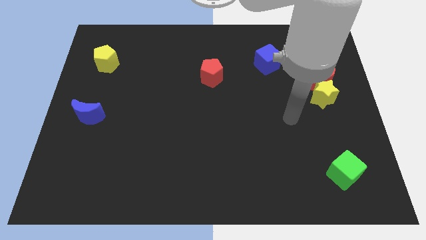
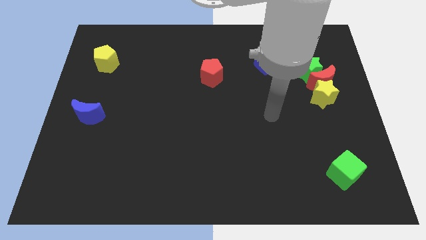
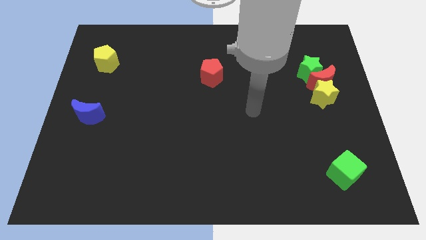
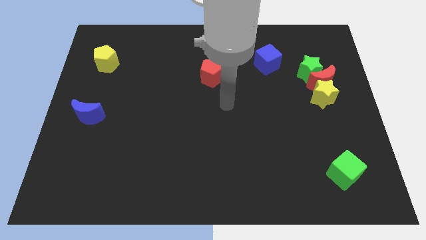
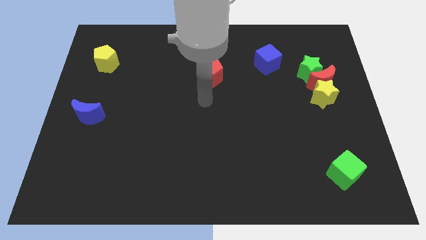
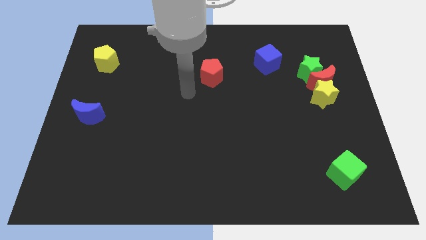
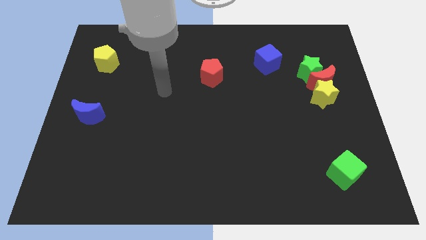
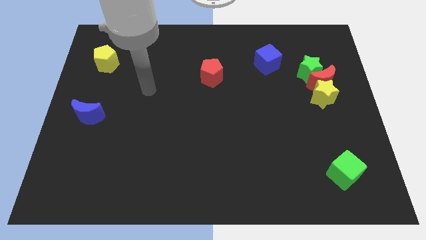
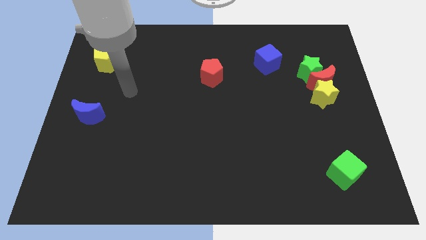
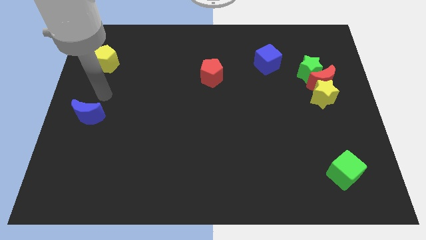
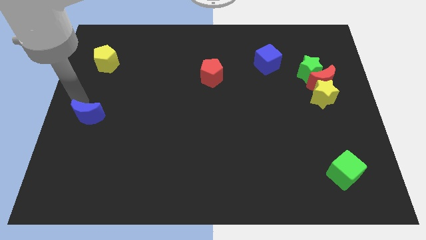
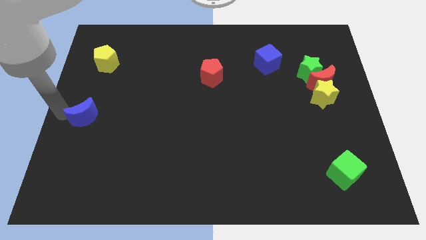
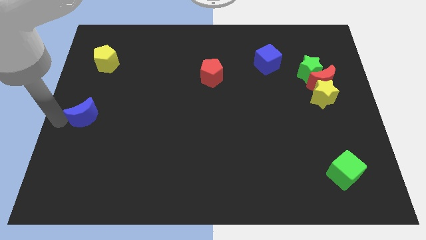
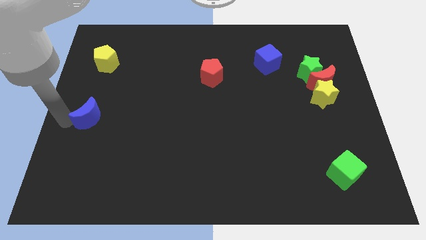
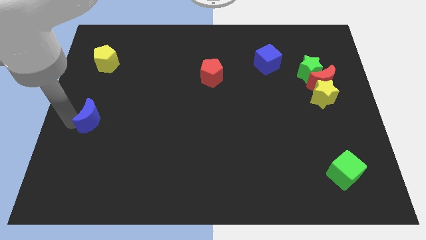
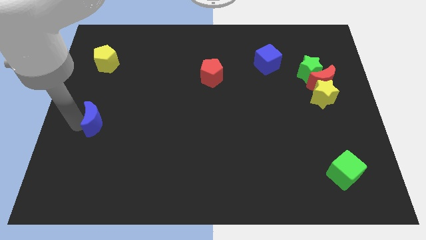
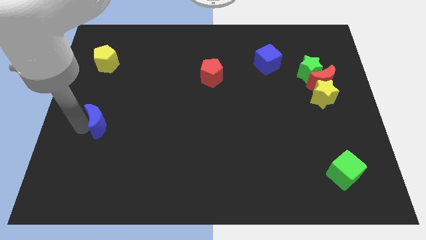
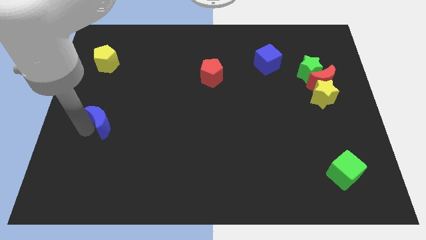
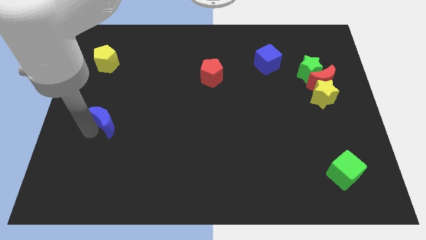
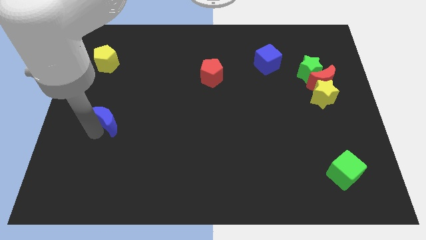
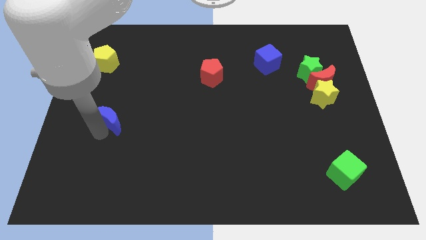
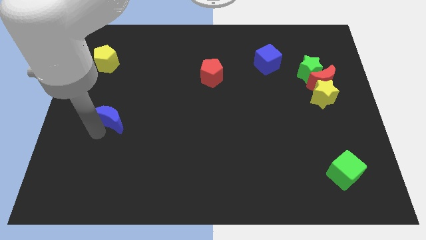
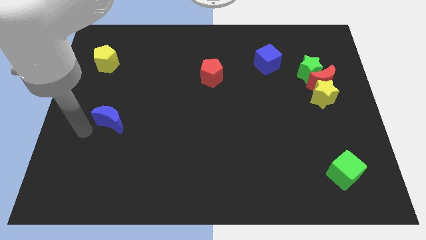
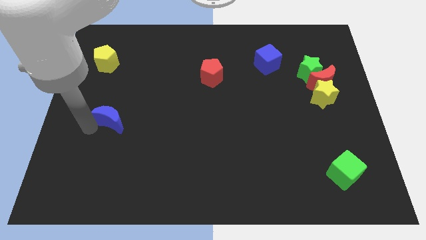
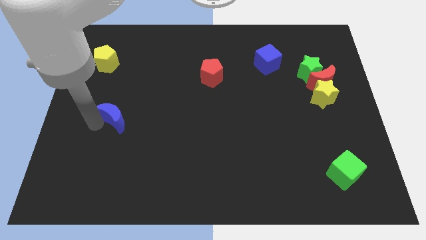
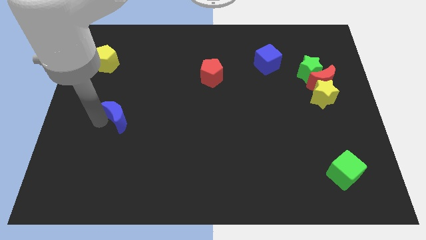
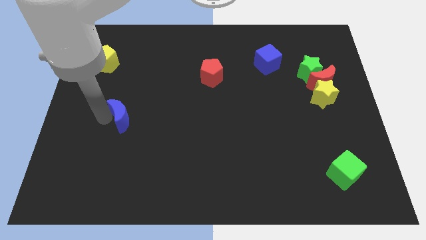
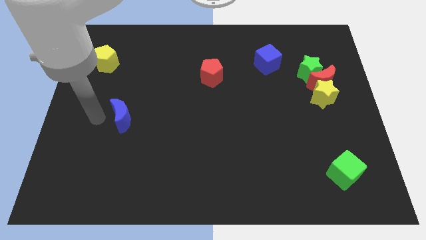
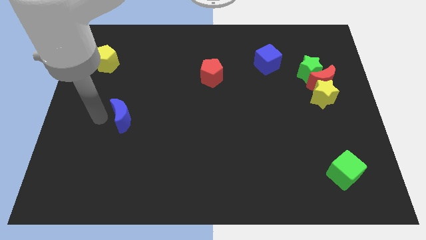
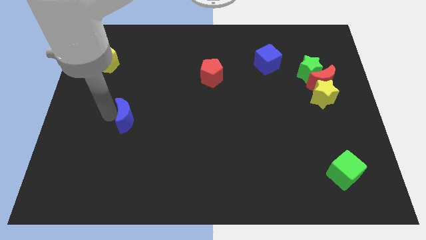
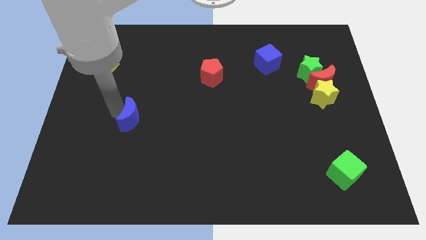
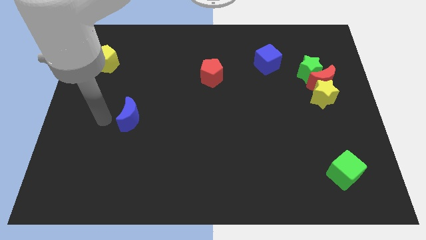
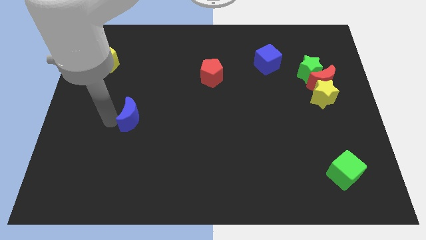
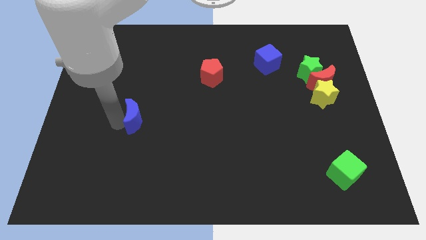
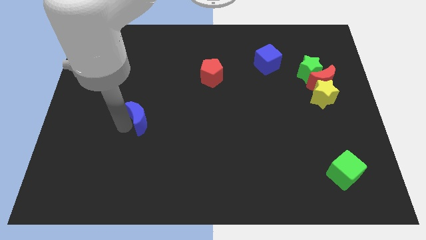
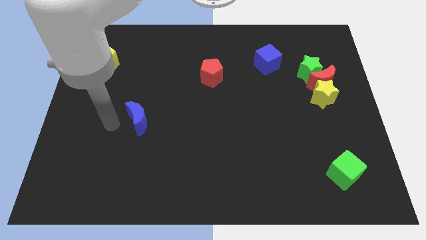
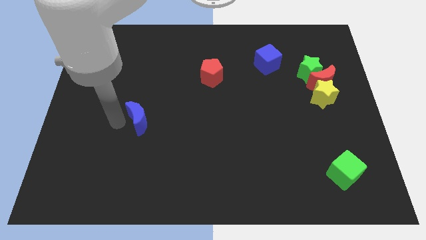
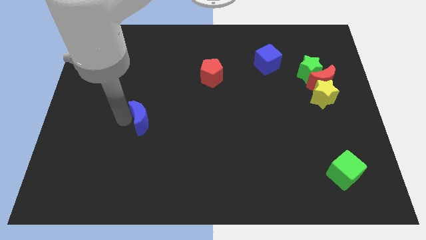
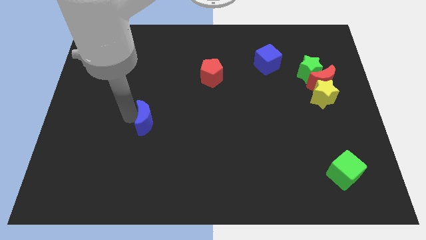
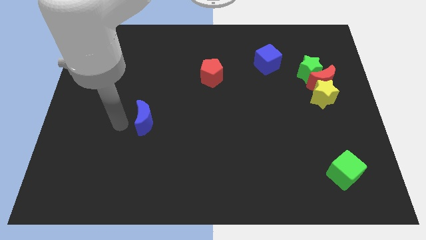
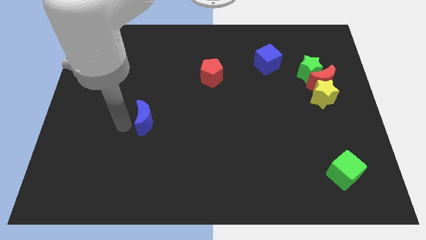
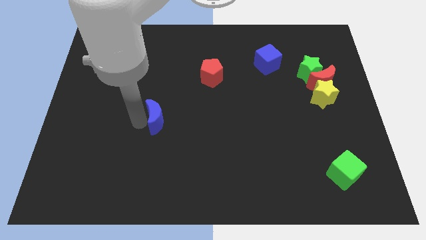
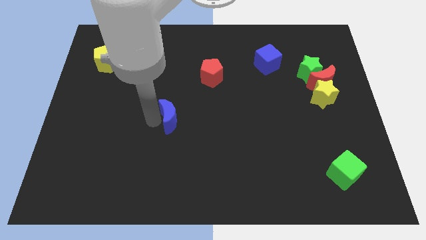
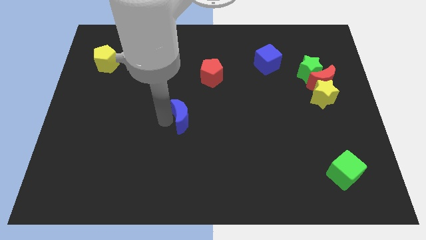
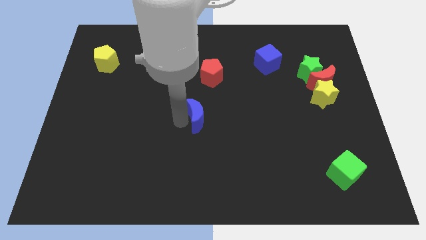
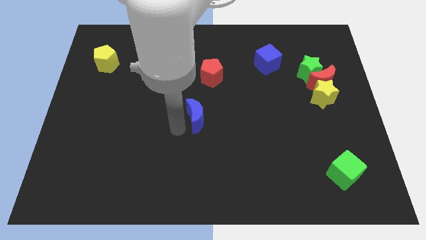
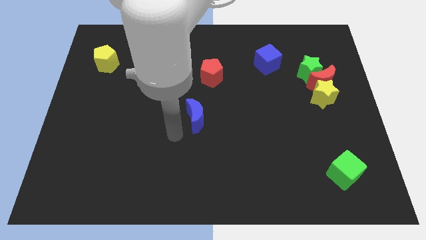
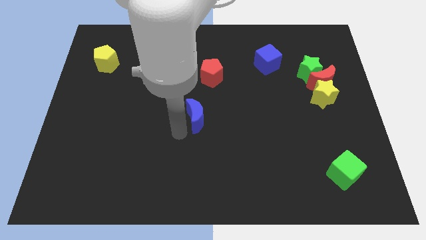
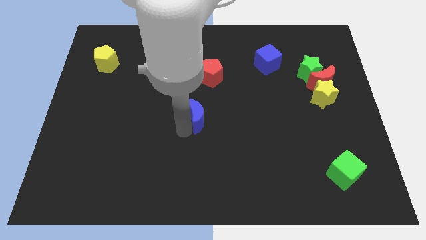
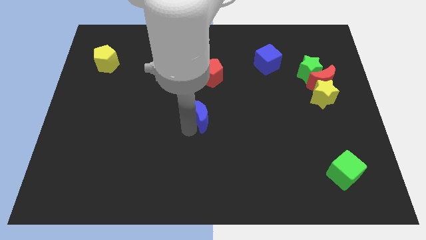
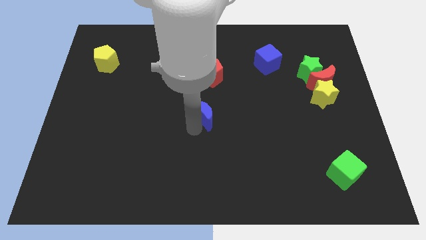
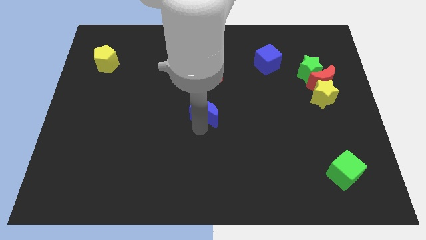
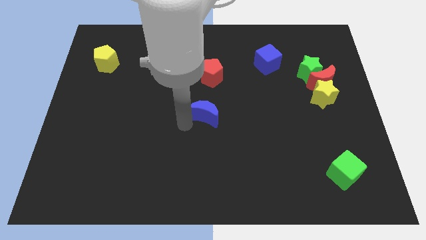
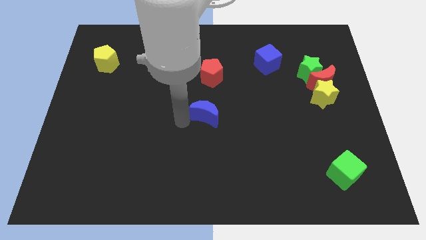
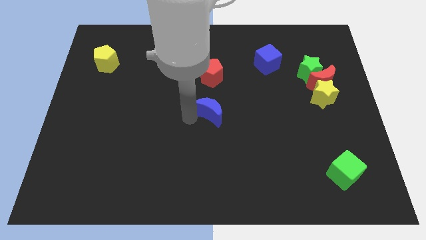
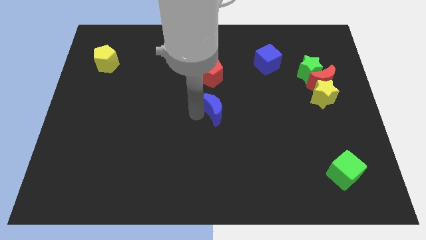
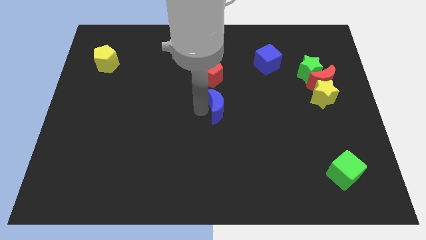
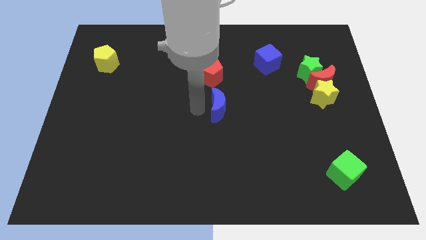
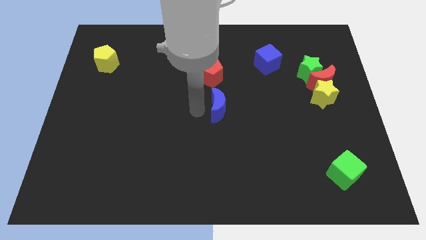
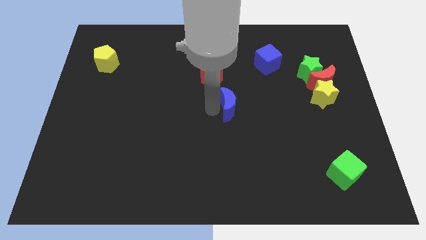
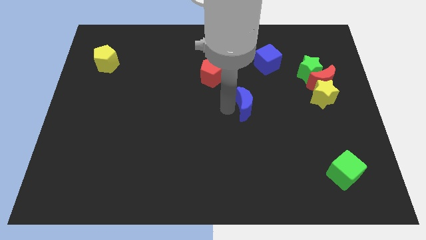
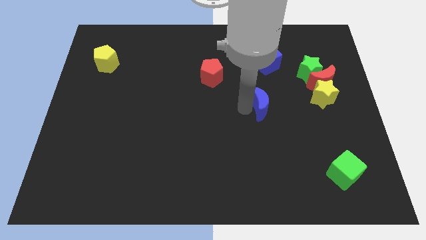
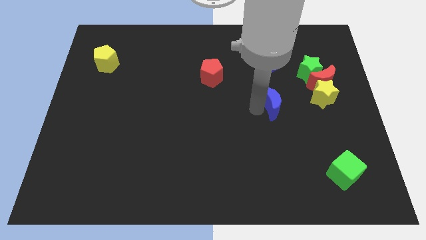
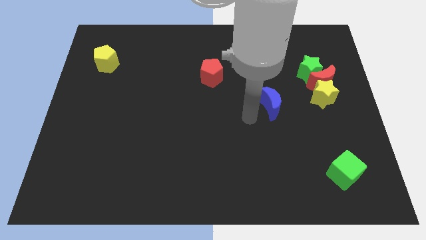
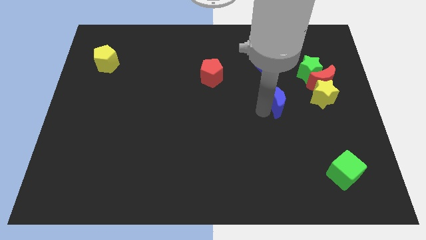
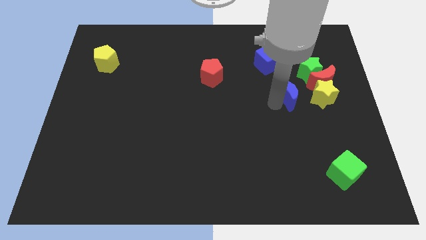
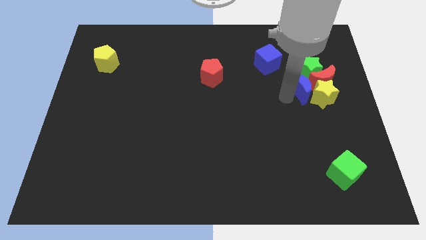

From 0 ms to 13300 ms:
put the blue moon towards the red moon
